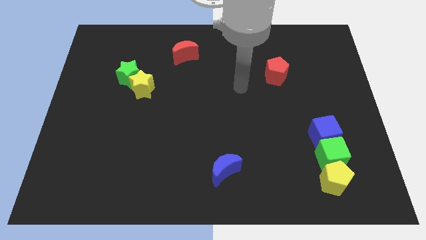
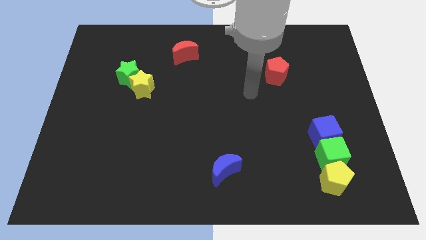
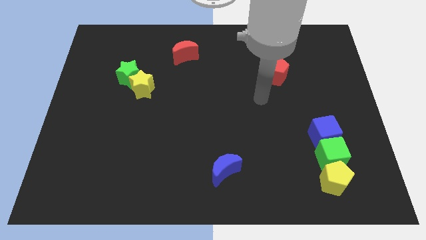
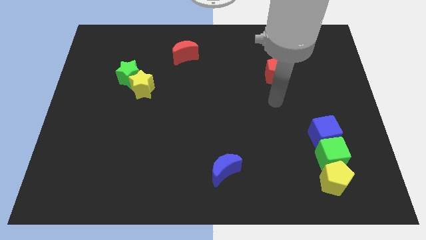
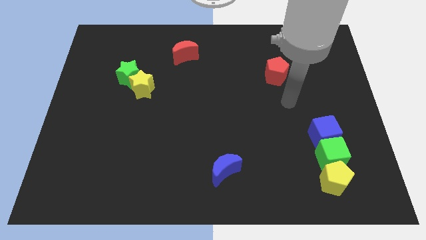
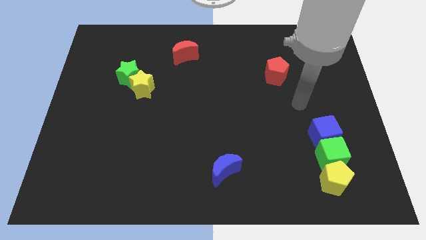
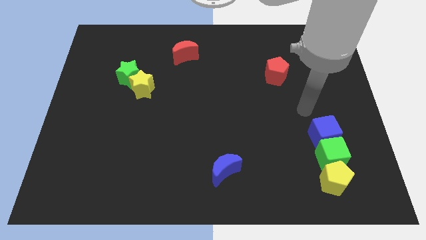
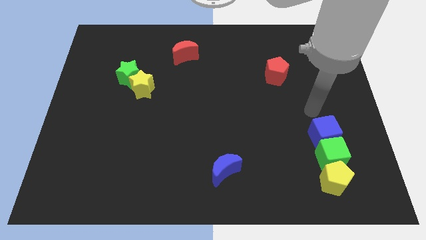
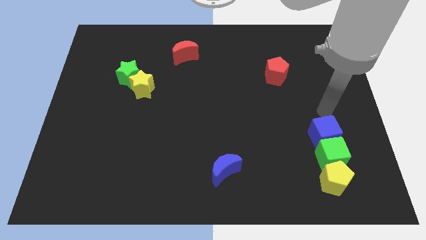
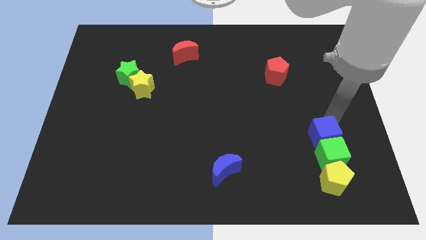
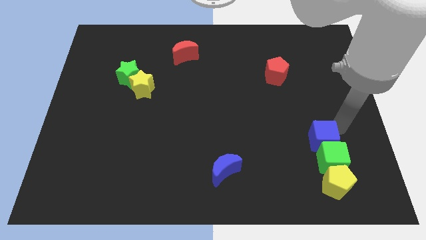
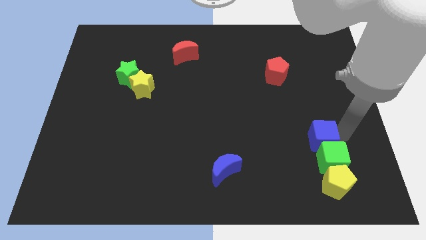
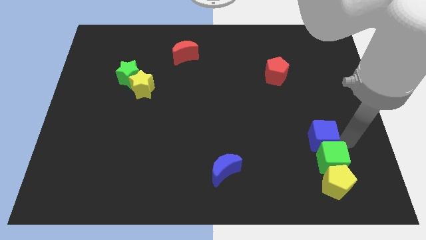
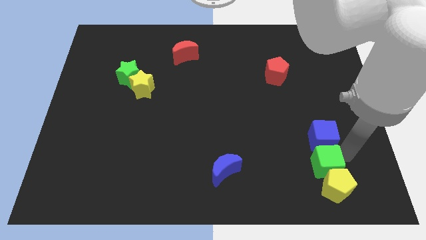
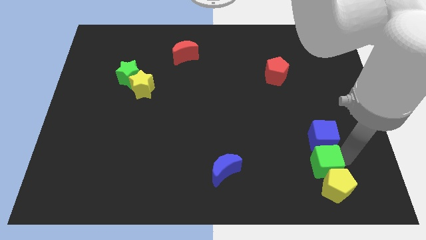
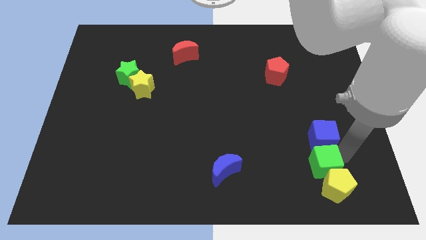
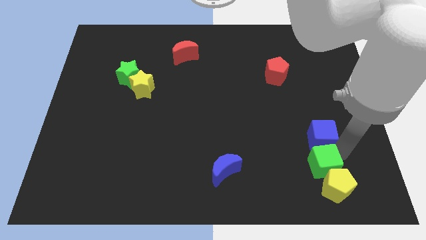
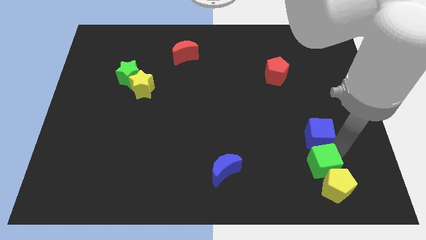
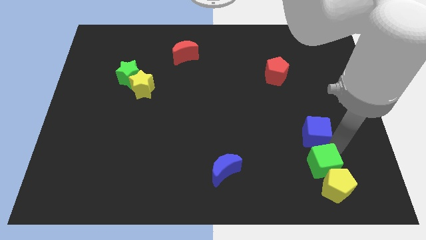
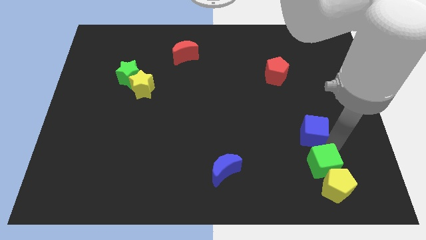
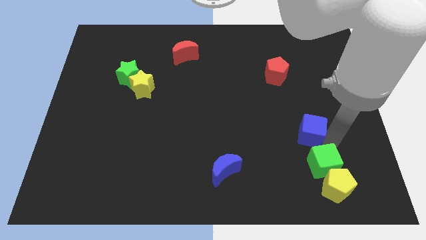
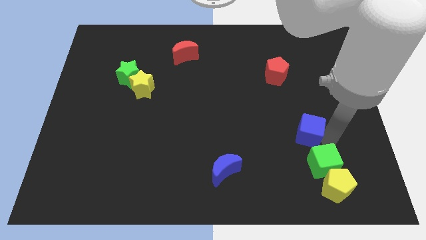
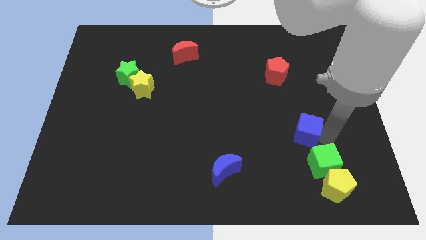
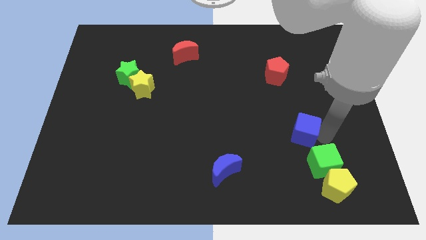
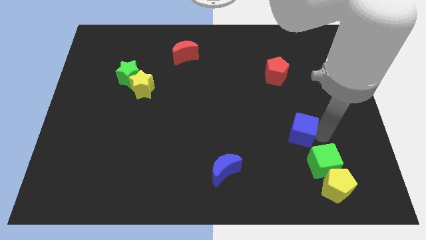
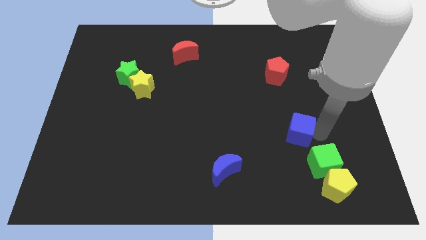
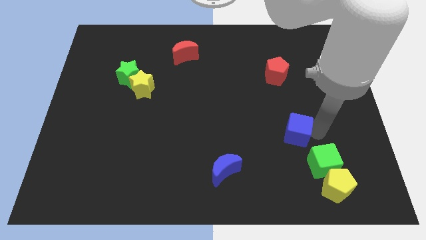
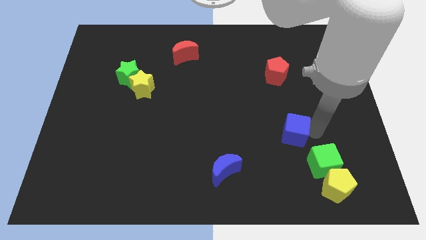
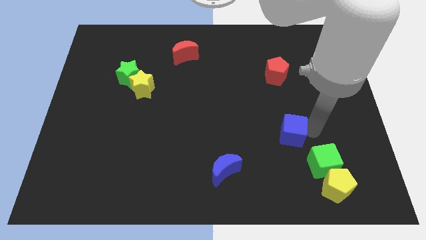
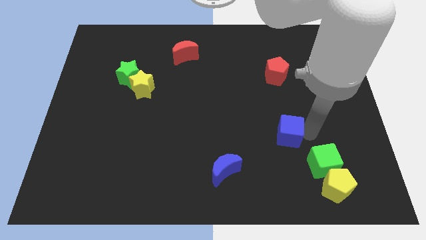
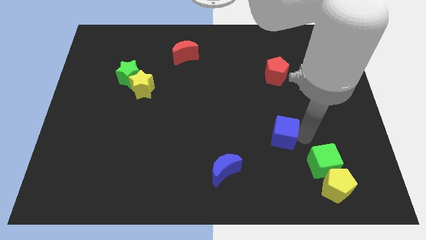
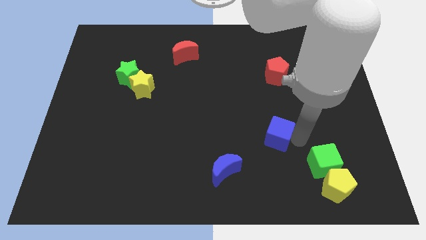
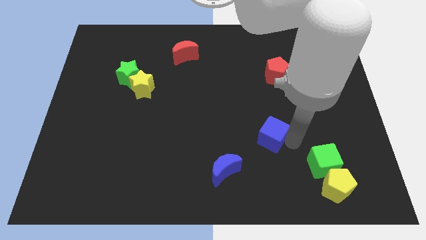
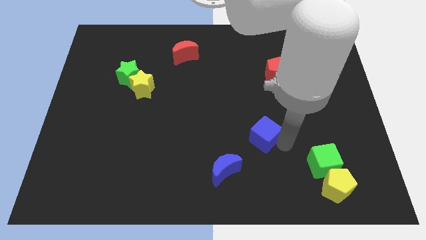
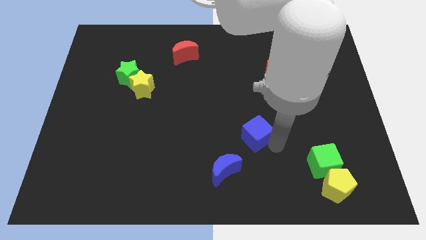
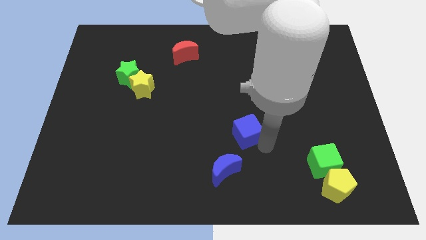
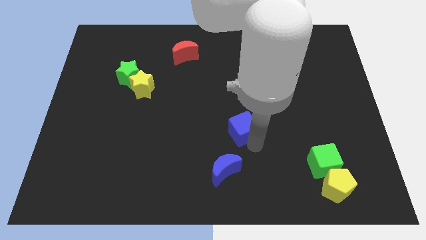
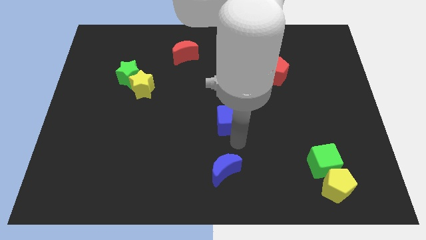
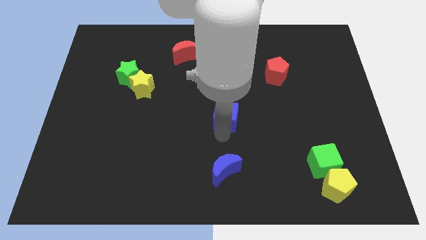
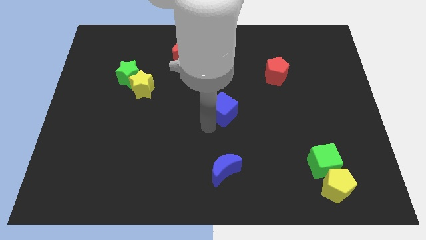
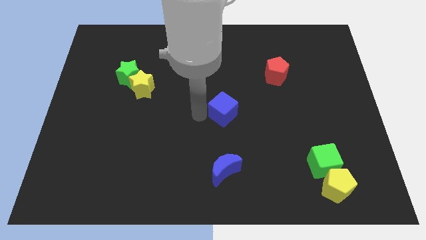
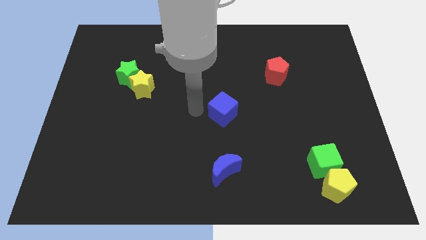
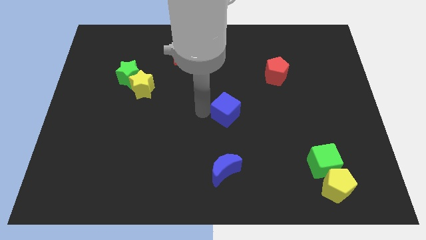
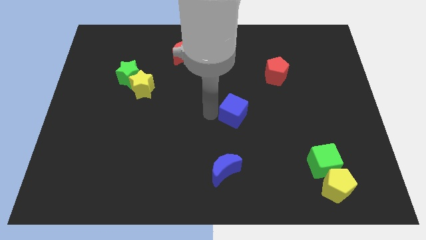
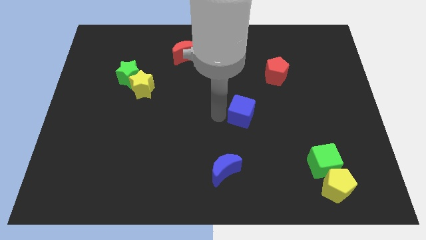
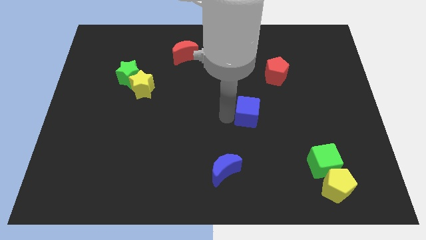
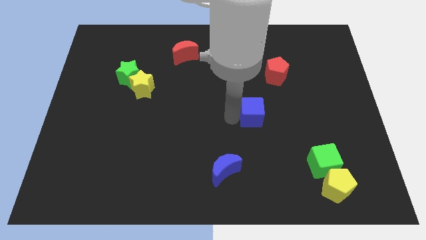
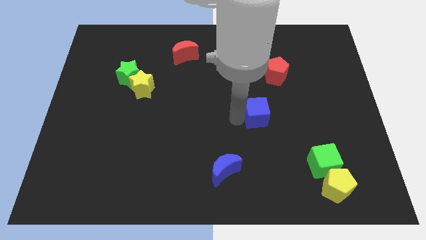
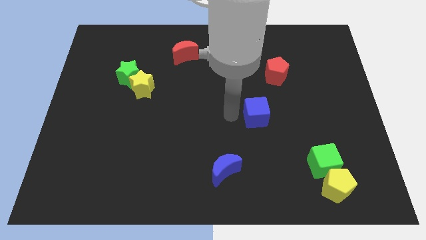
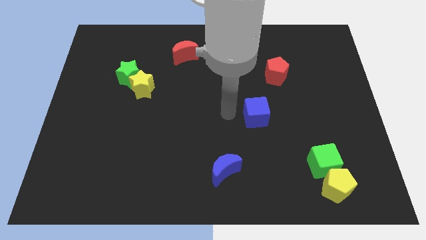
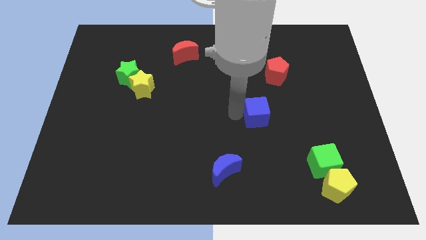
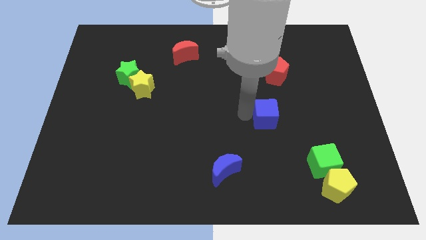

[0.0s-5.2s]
move the blue cube to the bottom side of the red pentagon

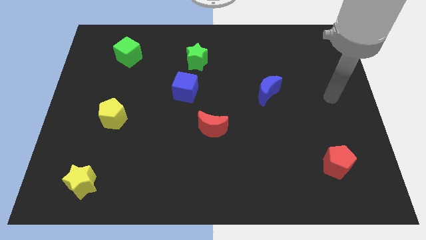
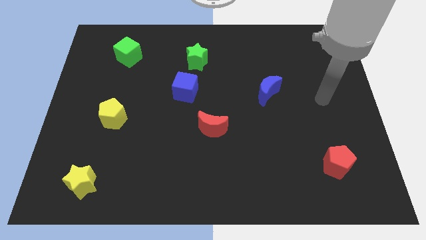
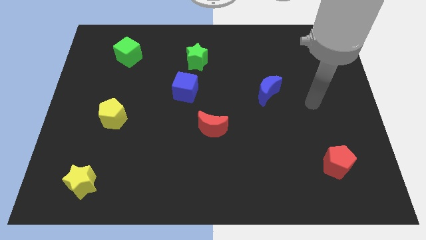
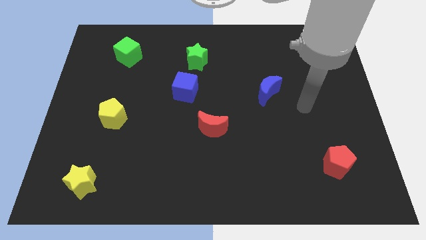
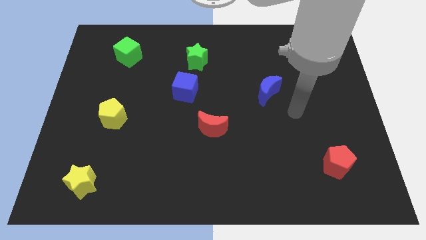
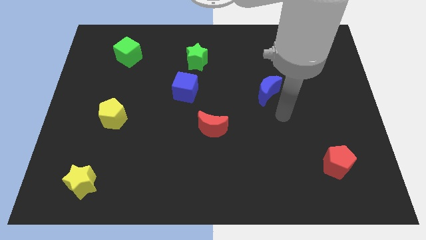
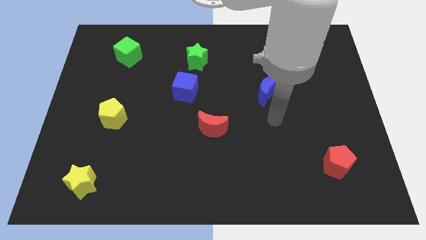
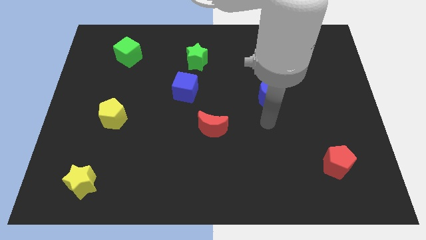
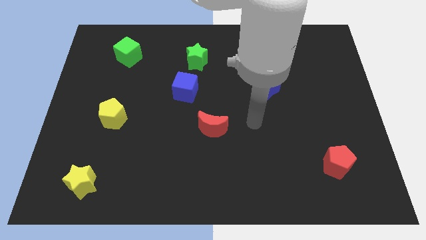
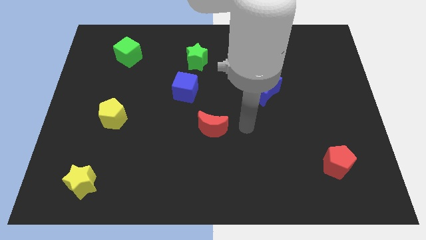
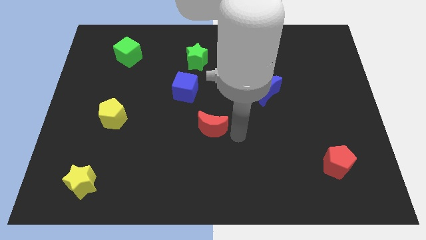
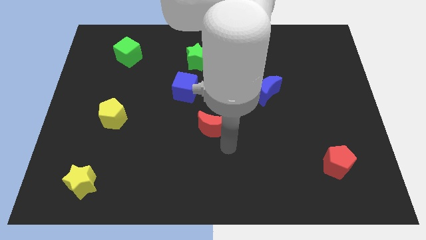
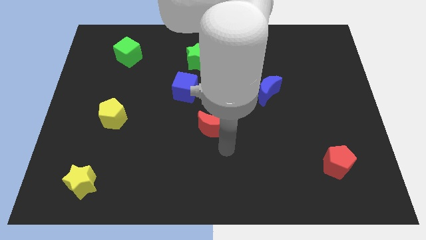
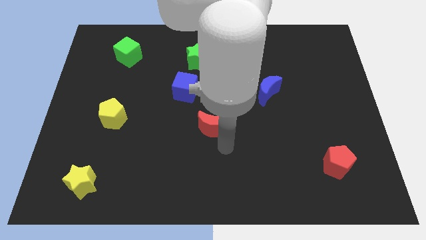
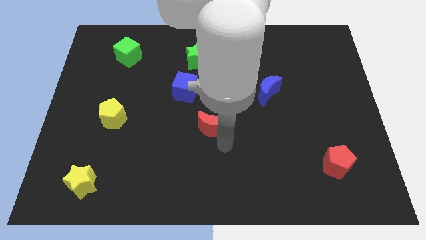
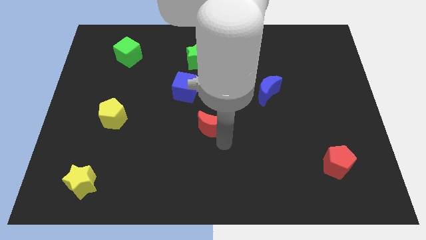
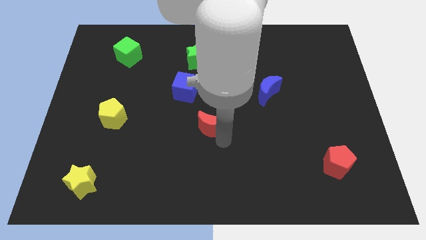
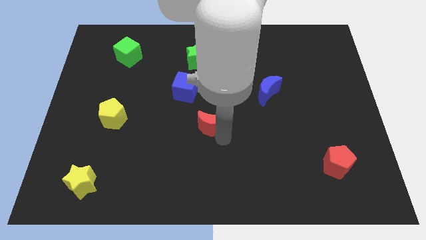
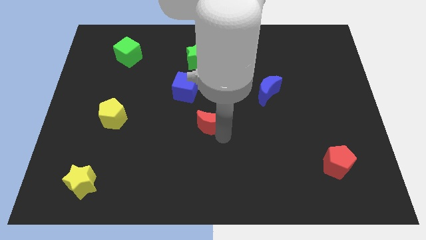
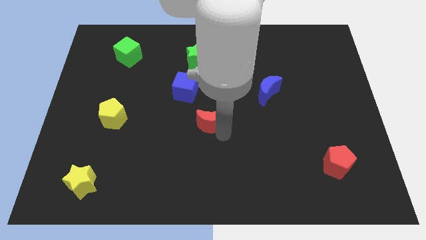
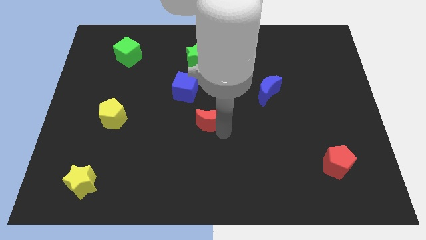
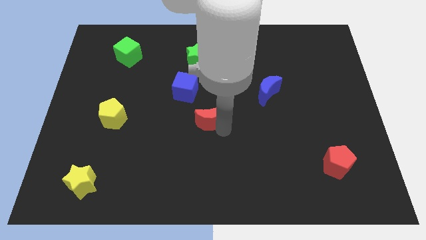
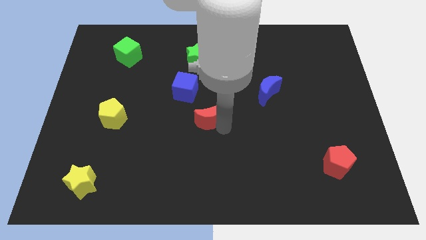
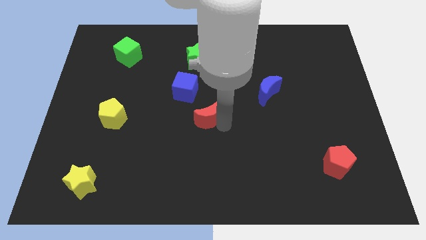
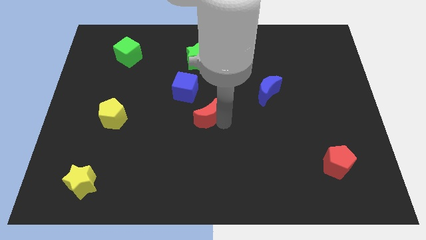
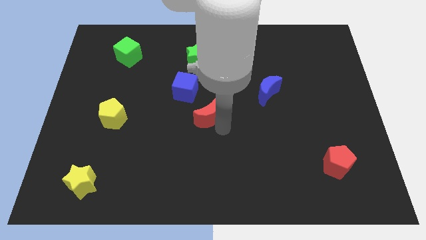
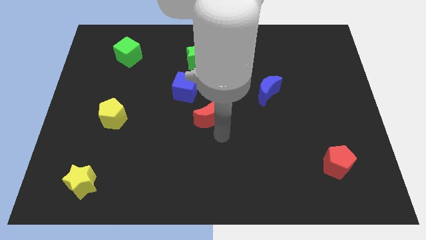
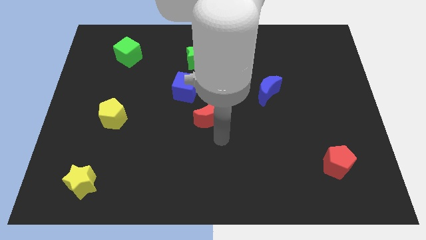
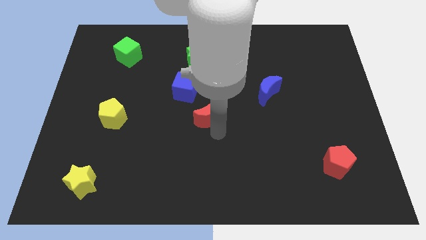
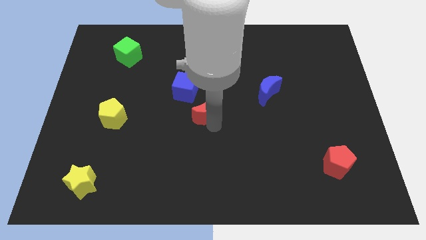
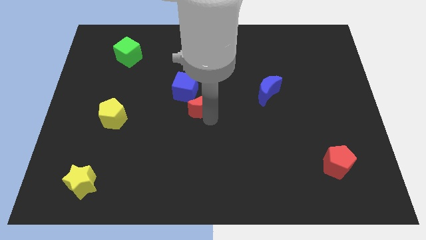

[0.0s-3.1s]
slide the red moon to the bottom of the green star
